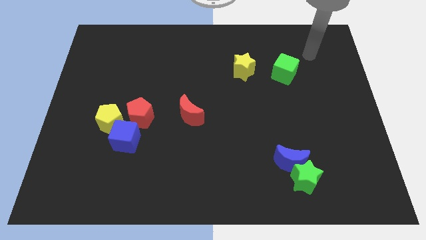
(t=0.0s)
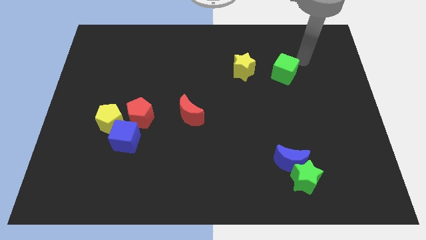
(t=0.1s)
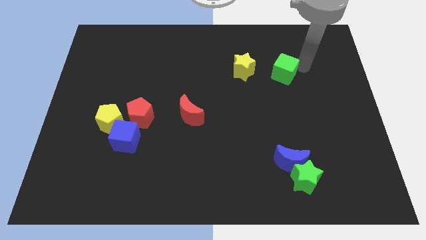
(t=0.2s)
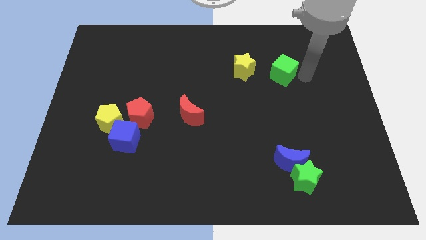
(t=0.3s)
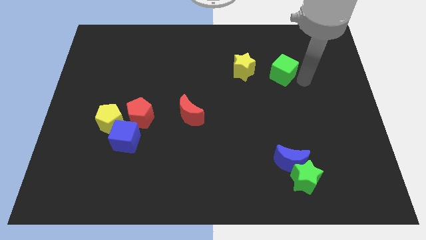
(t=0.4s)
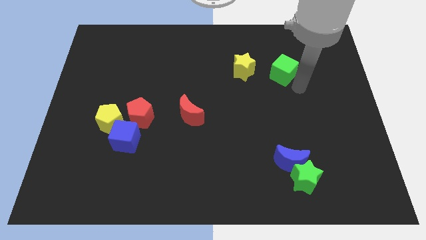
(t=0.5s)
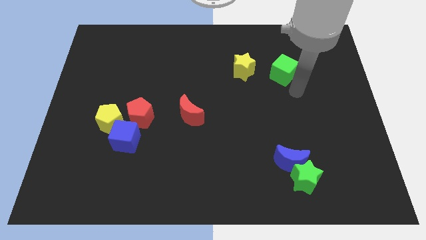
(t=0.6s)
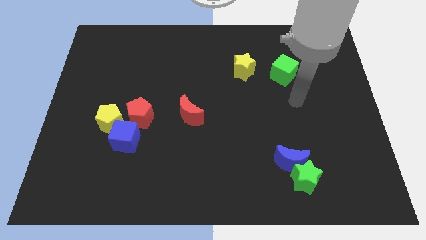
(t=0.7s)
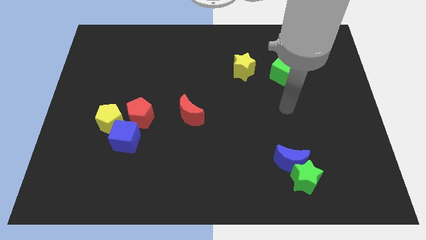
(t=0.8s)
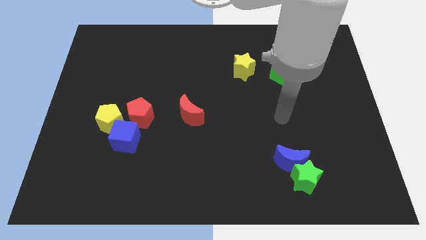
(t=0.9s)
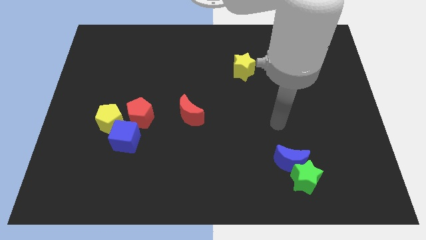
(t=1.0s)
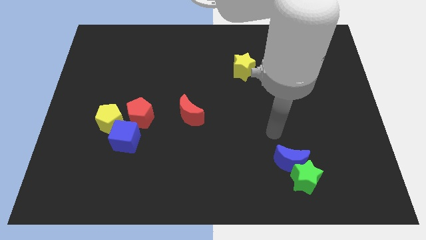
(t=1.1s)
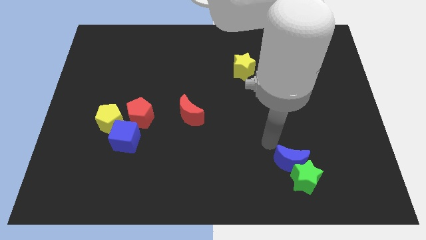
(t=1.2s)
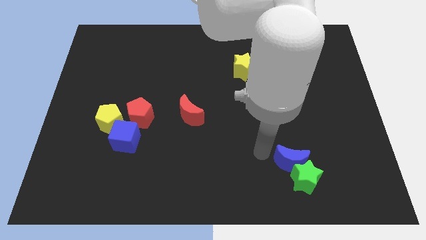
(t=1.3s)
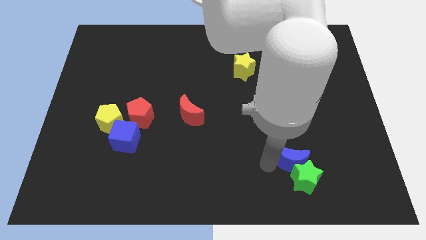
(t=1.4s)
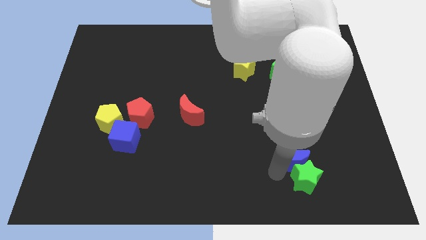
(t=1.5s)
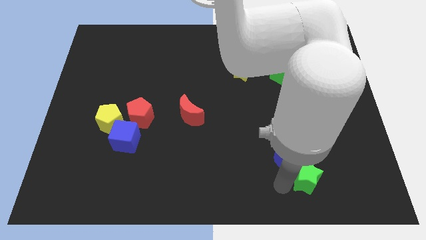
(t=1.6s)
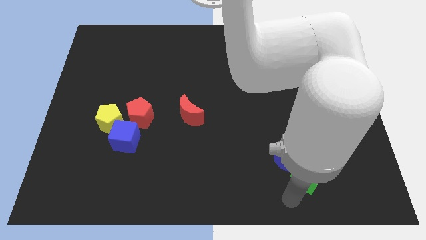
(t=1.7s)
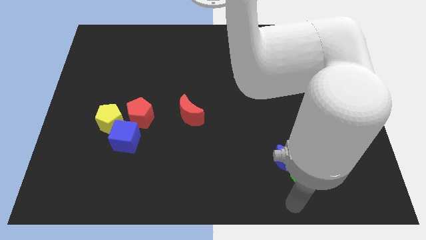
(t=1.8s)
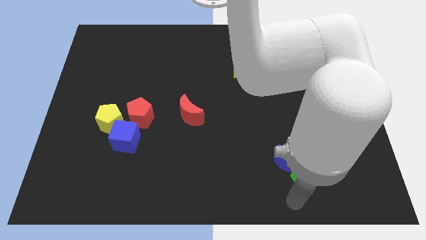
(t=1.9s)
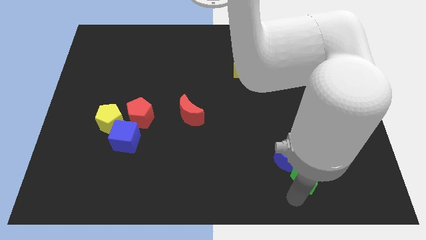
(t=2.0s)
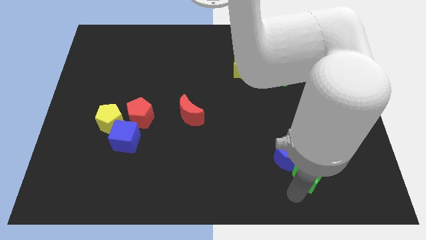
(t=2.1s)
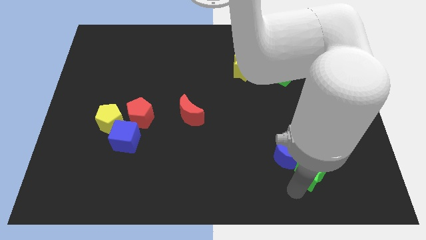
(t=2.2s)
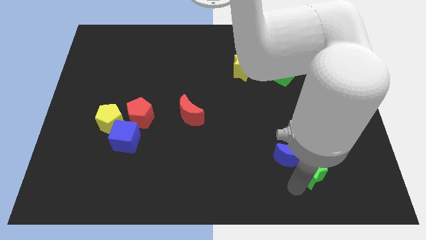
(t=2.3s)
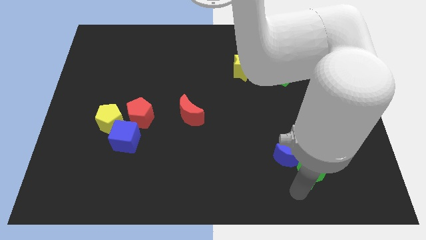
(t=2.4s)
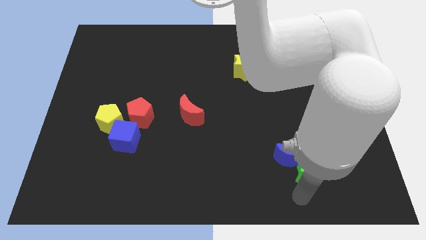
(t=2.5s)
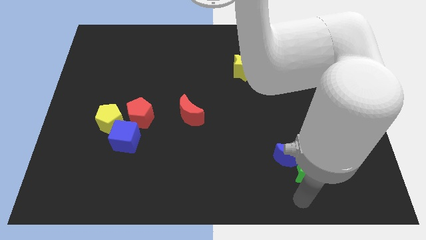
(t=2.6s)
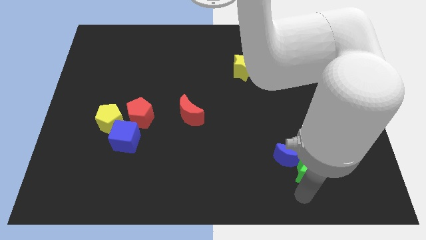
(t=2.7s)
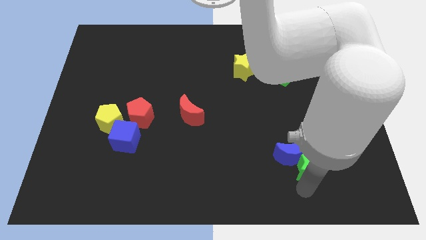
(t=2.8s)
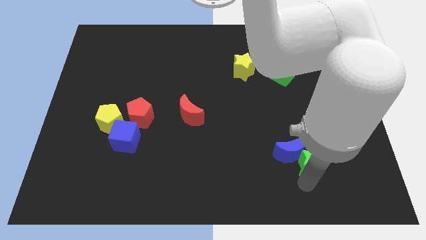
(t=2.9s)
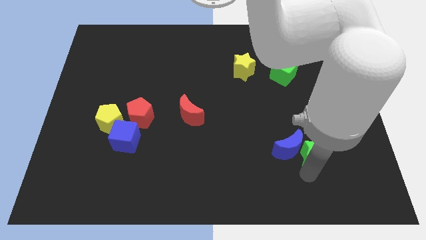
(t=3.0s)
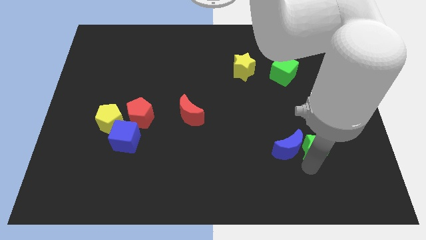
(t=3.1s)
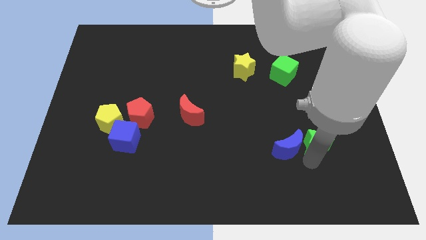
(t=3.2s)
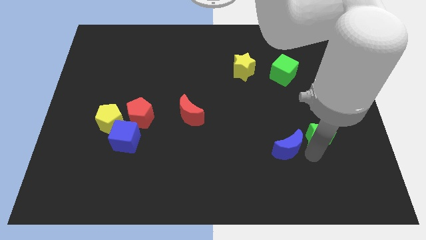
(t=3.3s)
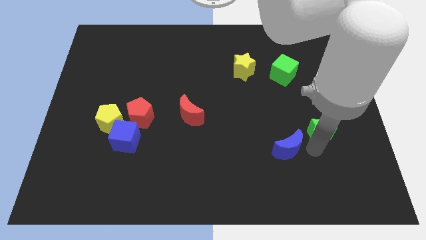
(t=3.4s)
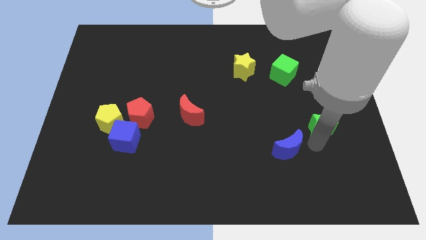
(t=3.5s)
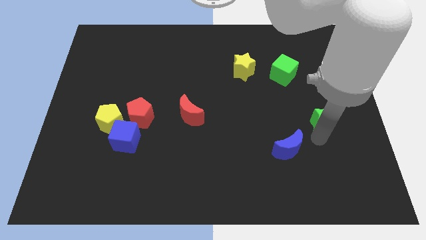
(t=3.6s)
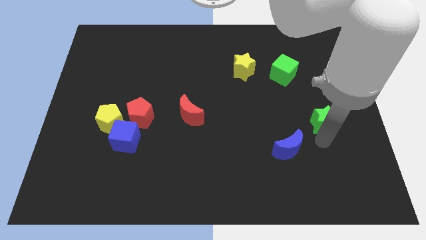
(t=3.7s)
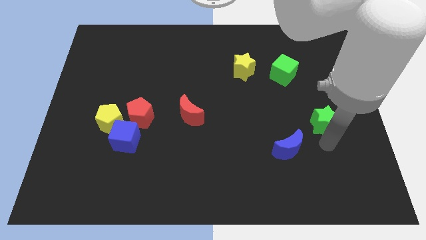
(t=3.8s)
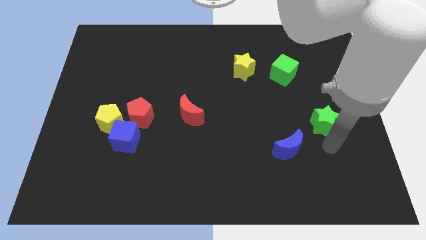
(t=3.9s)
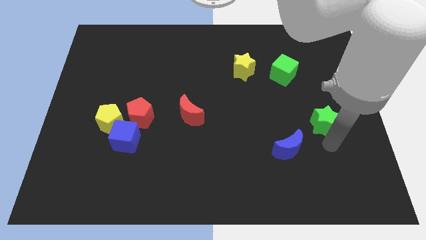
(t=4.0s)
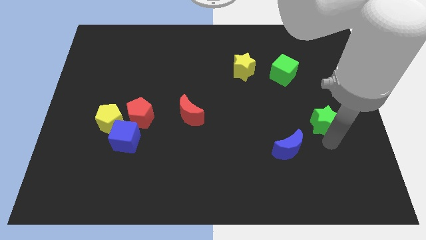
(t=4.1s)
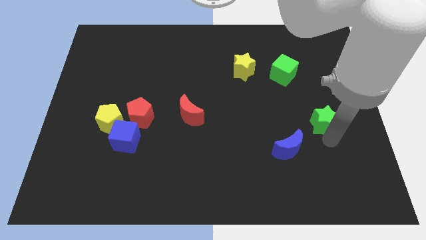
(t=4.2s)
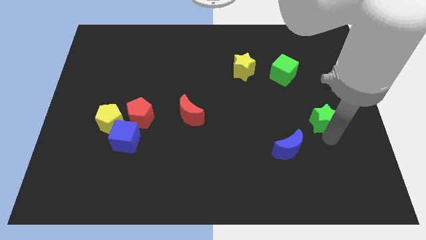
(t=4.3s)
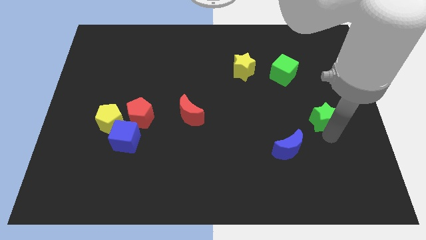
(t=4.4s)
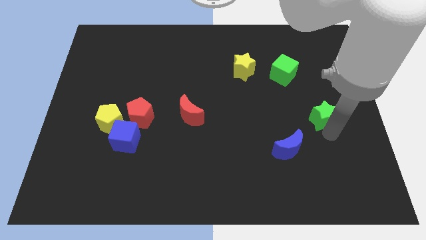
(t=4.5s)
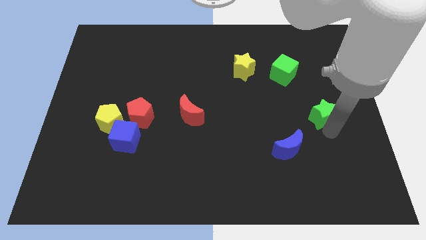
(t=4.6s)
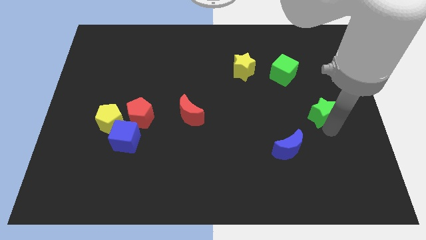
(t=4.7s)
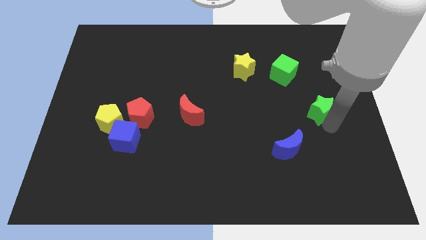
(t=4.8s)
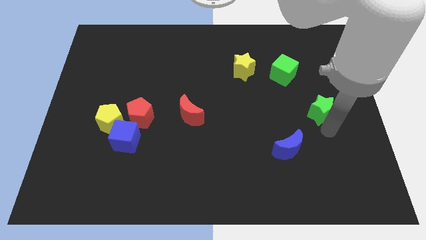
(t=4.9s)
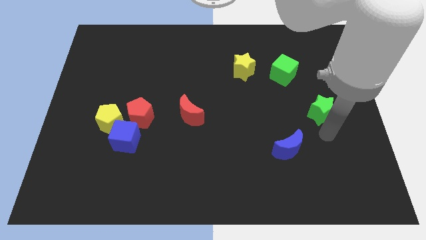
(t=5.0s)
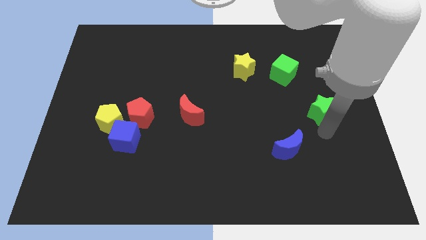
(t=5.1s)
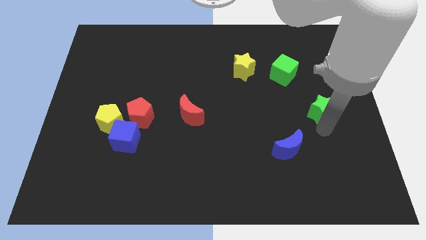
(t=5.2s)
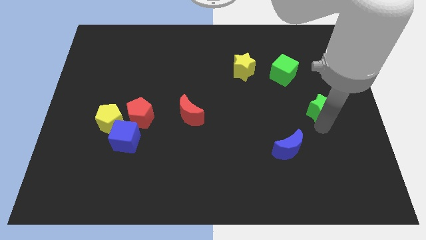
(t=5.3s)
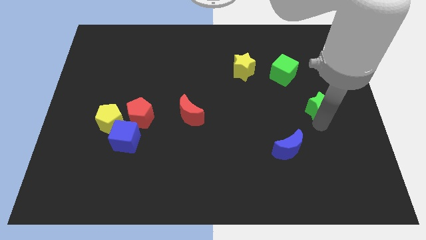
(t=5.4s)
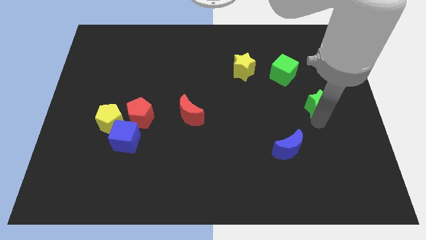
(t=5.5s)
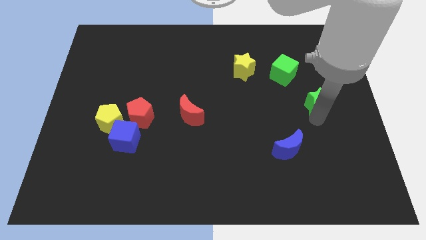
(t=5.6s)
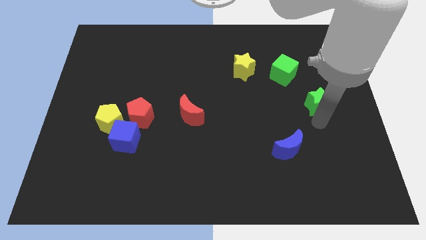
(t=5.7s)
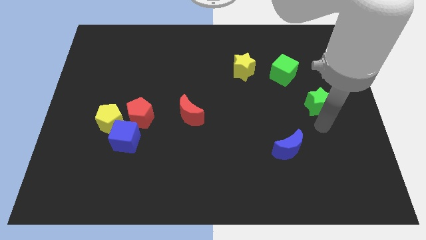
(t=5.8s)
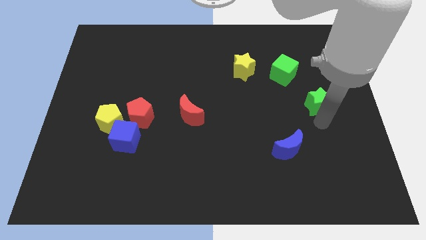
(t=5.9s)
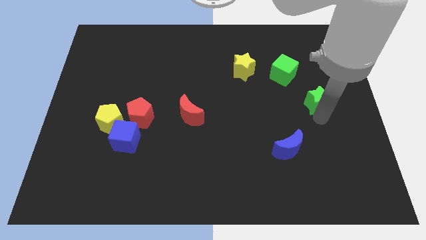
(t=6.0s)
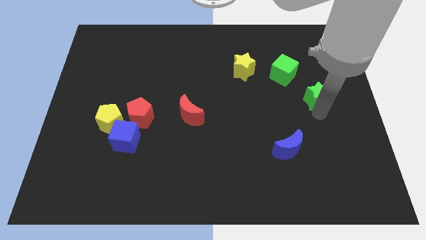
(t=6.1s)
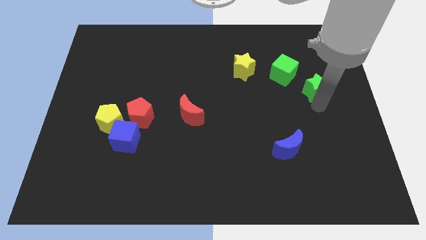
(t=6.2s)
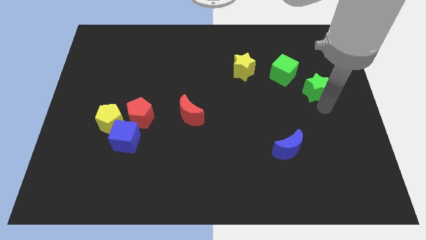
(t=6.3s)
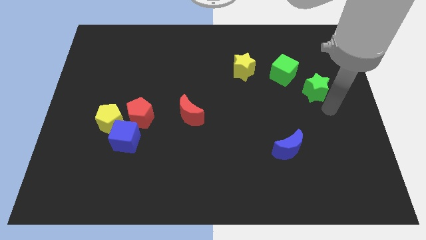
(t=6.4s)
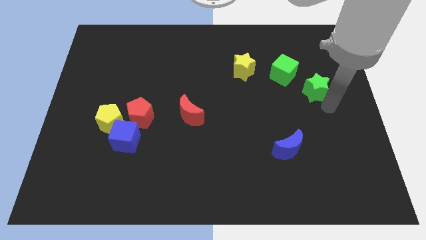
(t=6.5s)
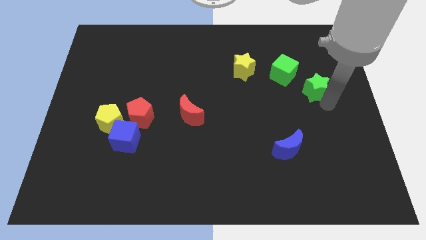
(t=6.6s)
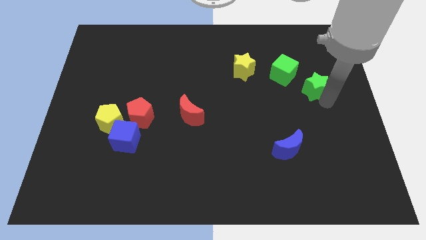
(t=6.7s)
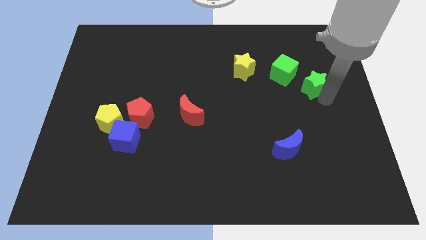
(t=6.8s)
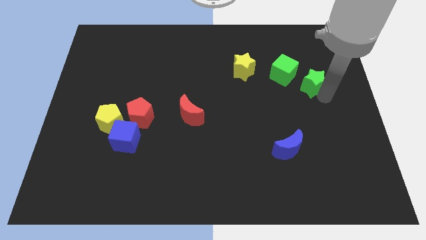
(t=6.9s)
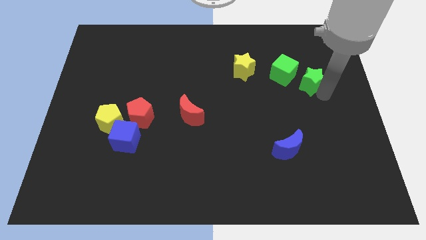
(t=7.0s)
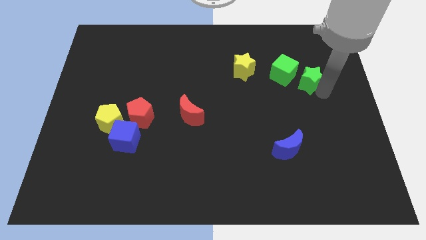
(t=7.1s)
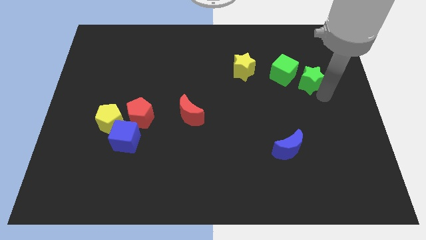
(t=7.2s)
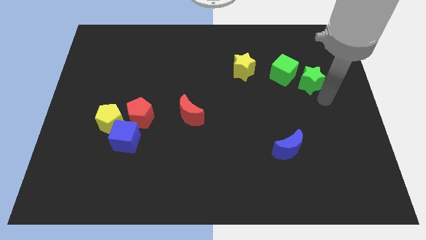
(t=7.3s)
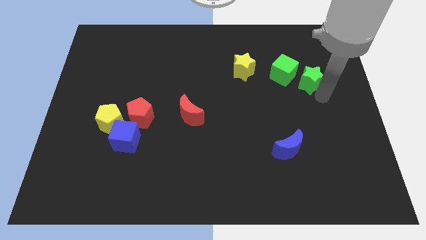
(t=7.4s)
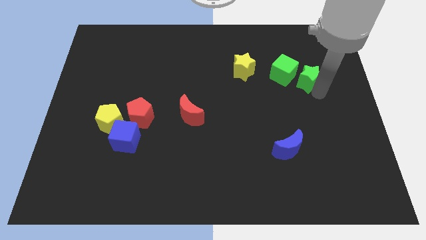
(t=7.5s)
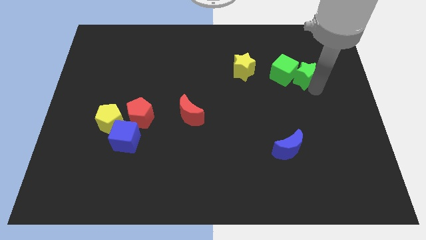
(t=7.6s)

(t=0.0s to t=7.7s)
slide the green star to the right of the yellow star
